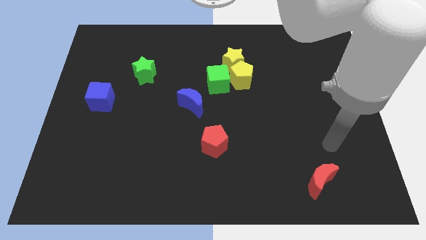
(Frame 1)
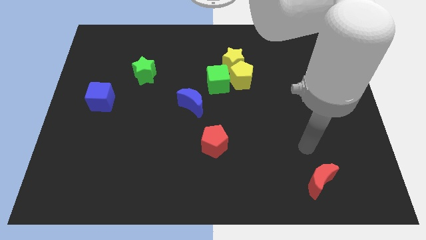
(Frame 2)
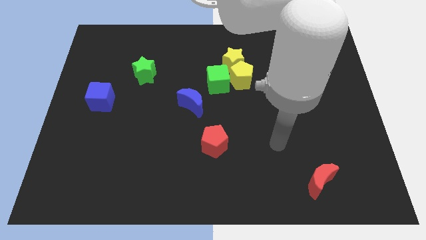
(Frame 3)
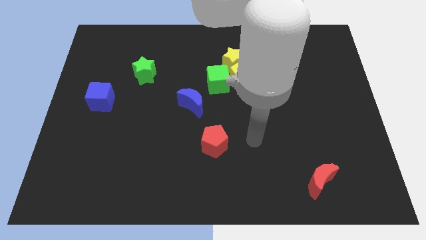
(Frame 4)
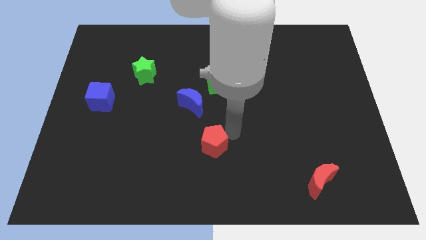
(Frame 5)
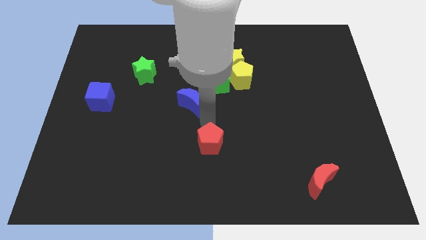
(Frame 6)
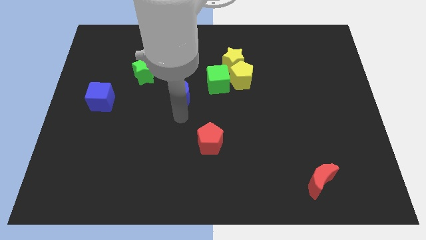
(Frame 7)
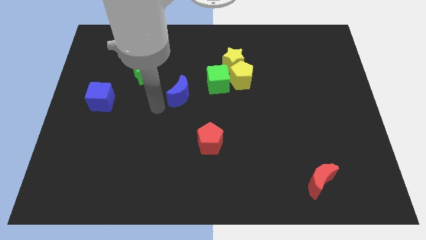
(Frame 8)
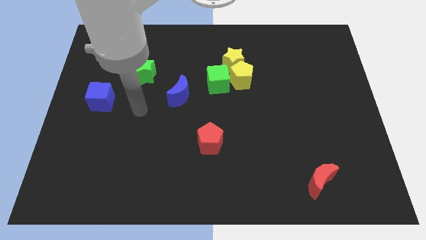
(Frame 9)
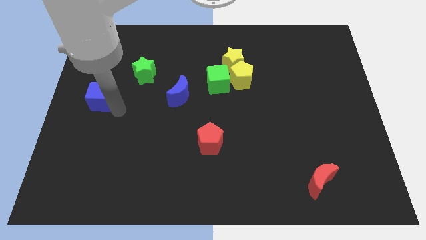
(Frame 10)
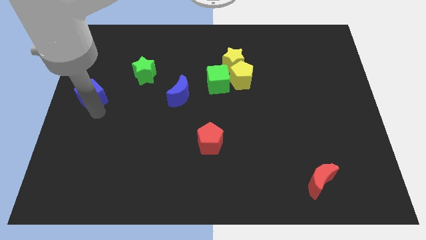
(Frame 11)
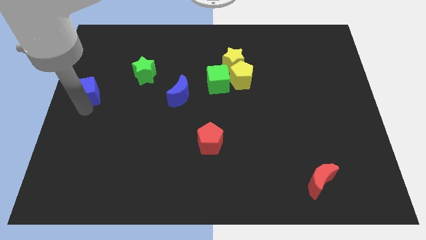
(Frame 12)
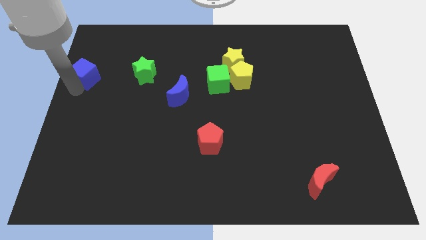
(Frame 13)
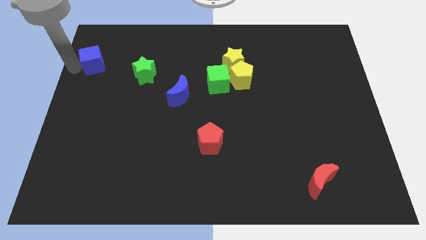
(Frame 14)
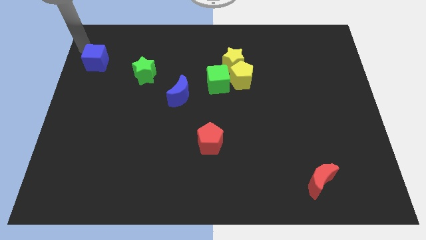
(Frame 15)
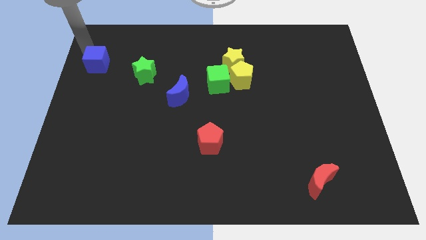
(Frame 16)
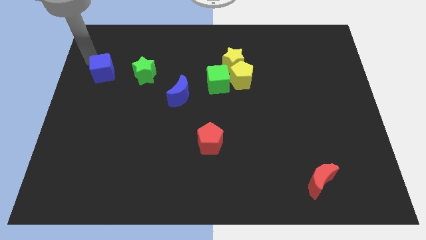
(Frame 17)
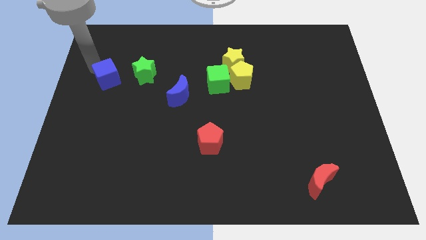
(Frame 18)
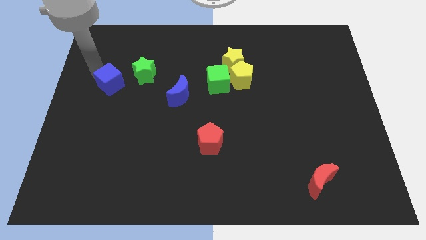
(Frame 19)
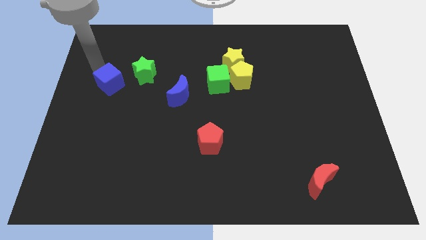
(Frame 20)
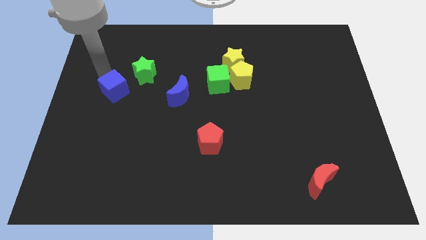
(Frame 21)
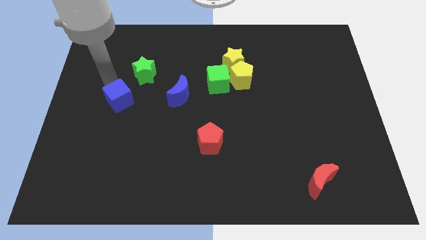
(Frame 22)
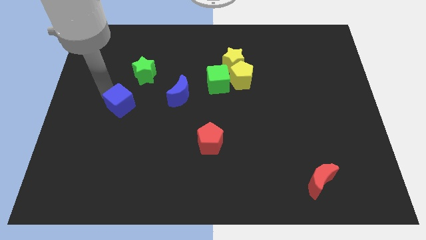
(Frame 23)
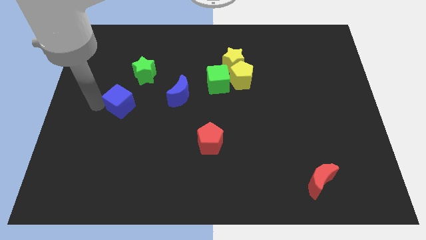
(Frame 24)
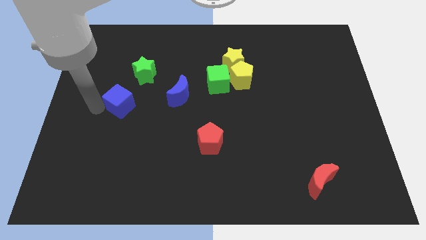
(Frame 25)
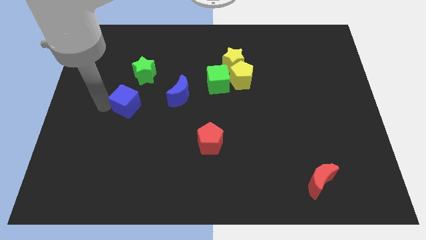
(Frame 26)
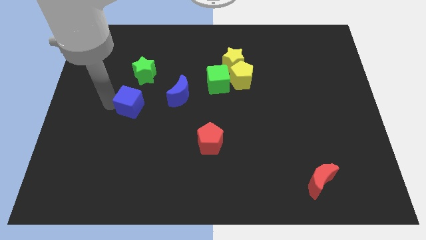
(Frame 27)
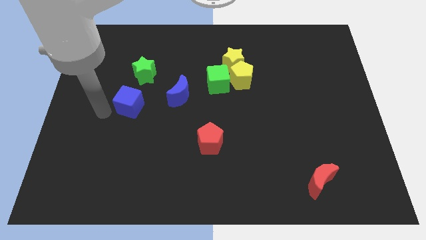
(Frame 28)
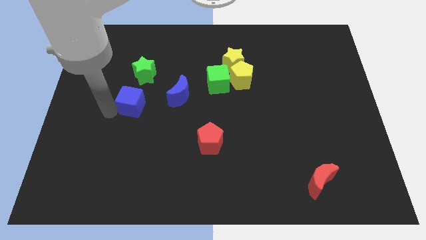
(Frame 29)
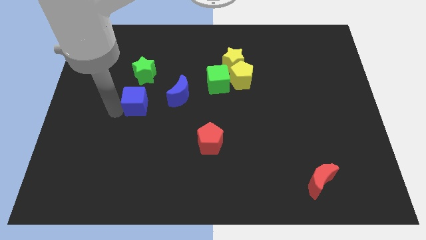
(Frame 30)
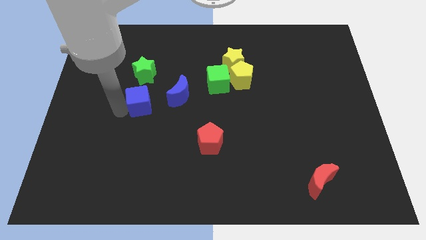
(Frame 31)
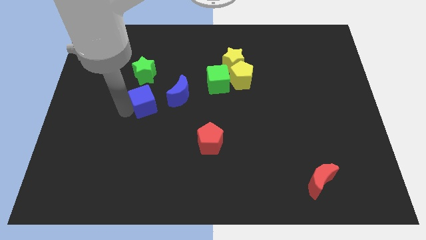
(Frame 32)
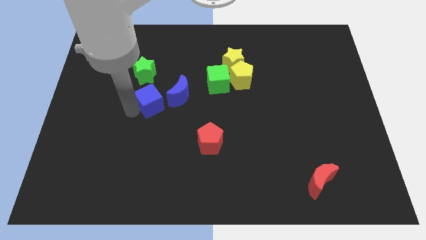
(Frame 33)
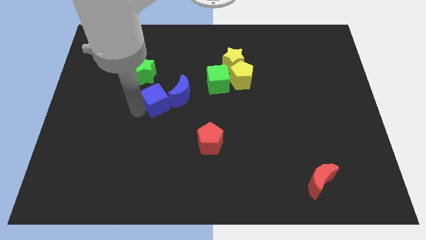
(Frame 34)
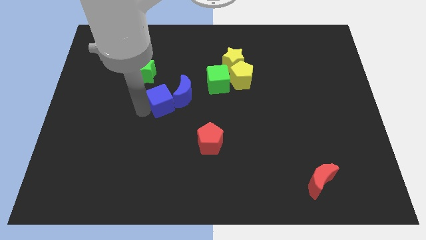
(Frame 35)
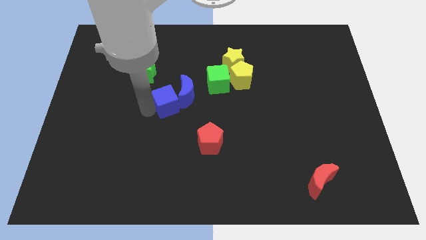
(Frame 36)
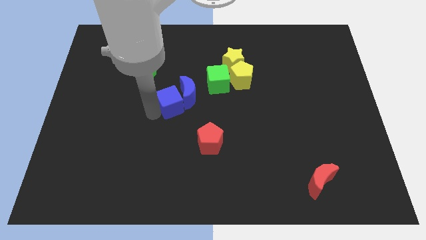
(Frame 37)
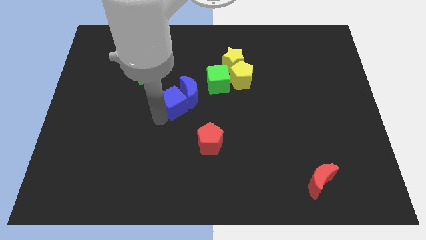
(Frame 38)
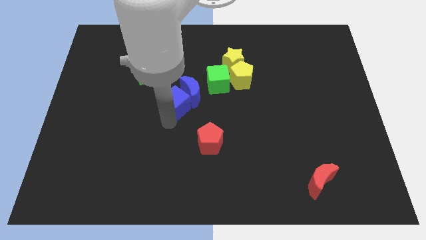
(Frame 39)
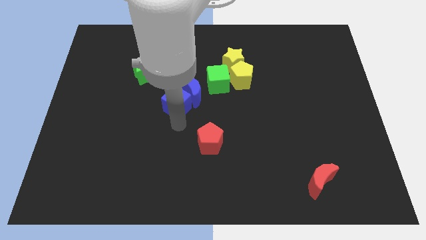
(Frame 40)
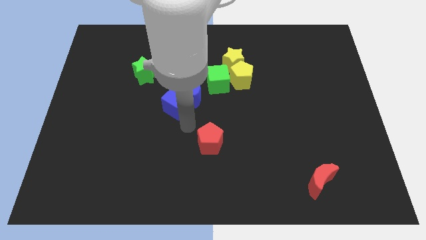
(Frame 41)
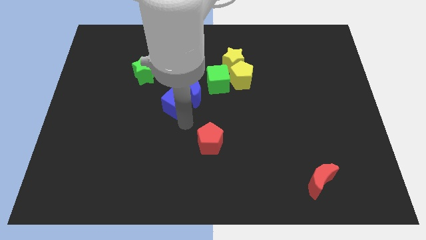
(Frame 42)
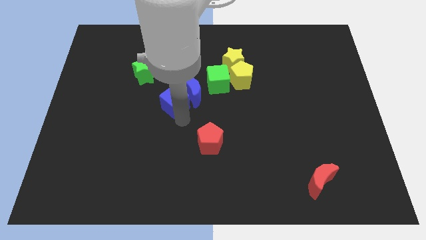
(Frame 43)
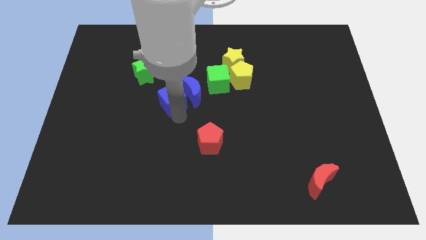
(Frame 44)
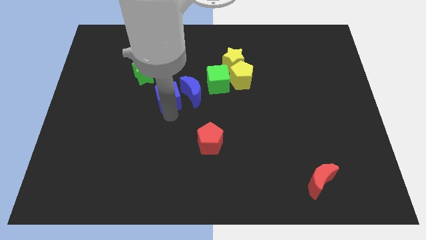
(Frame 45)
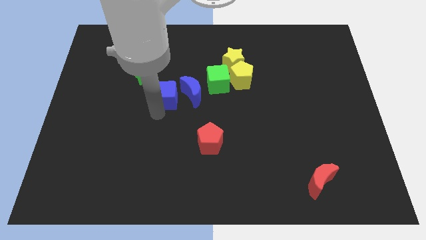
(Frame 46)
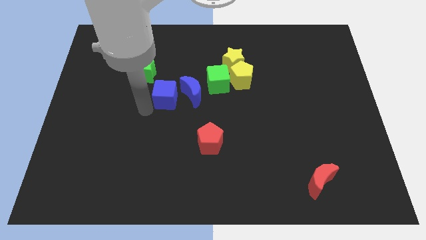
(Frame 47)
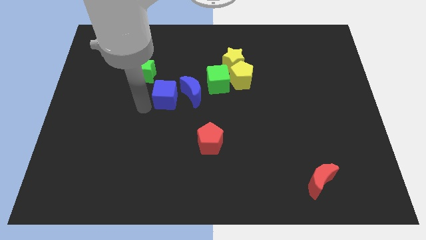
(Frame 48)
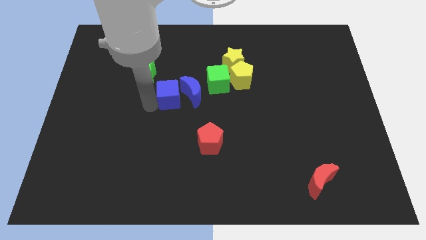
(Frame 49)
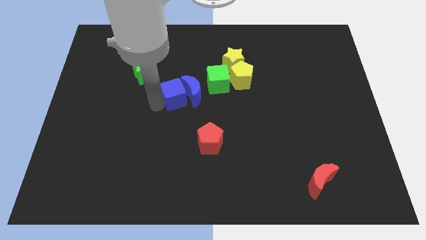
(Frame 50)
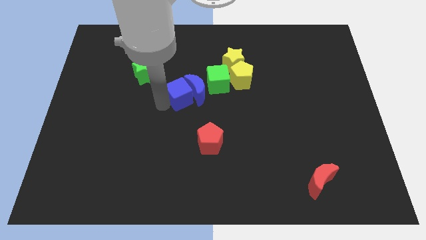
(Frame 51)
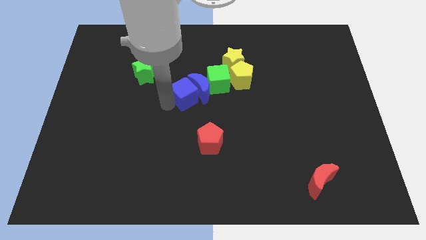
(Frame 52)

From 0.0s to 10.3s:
move the blue cube to the right

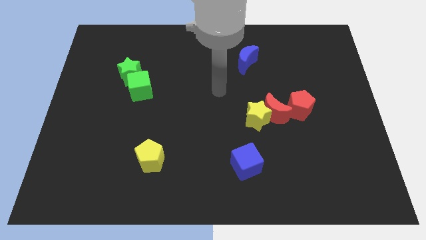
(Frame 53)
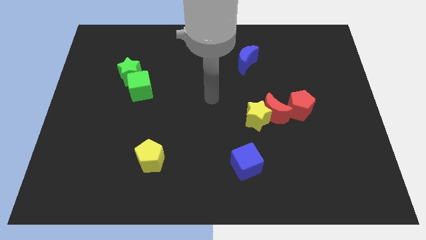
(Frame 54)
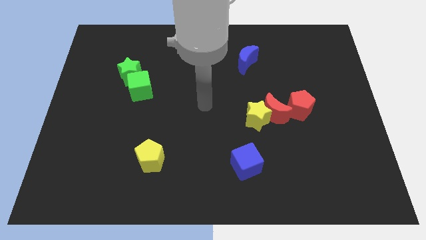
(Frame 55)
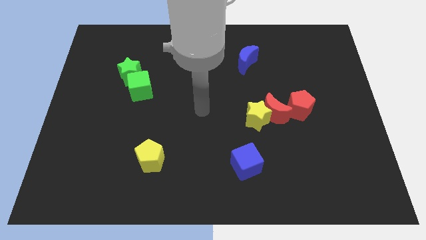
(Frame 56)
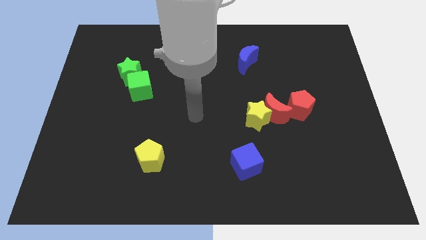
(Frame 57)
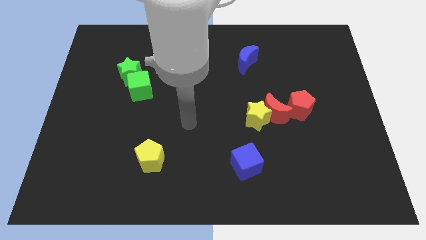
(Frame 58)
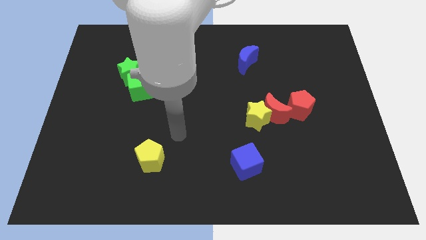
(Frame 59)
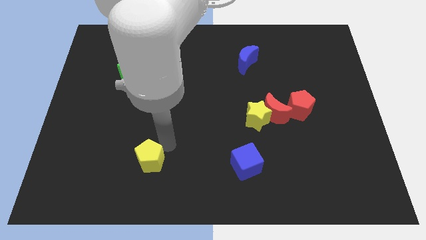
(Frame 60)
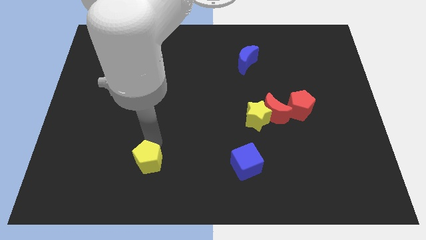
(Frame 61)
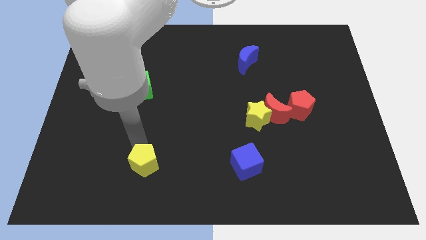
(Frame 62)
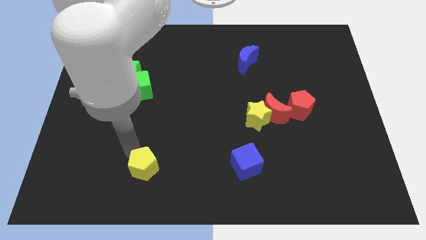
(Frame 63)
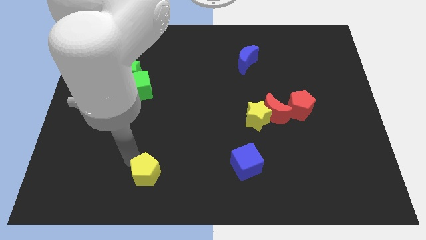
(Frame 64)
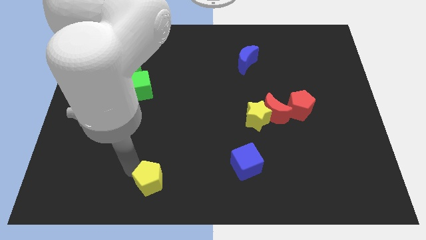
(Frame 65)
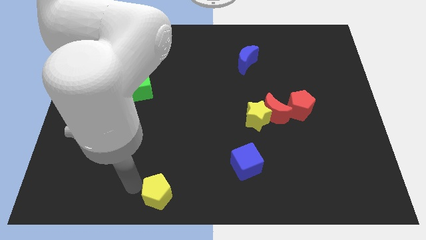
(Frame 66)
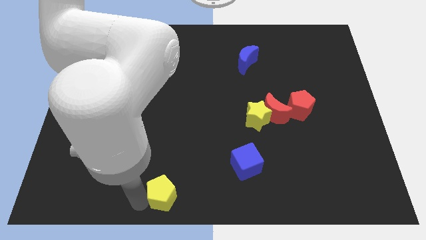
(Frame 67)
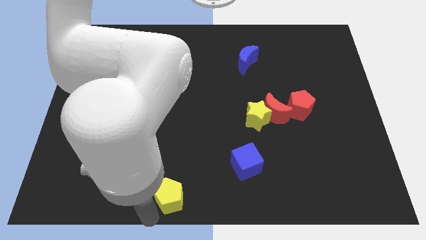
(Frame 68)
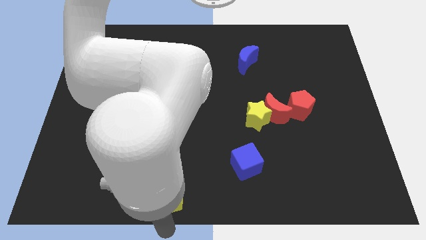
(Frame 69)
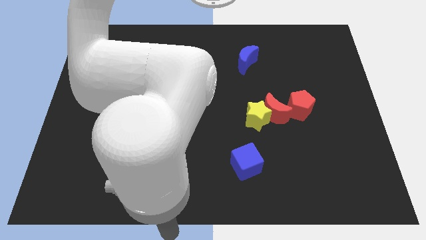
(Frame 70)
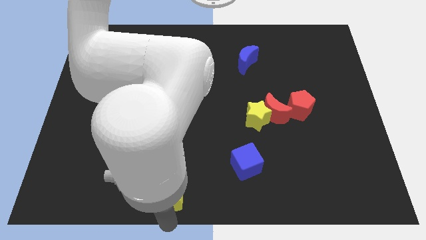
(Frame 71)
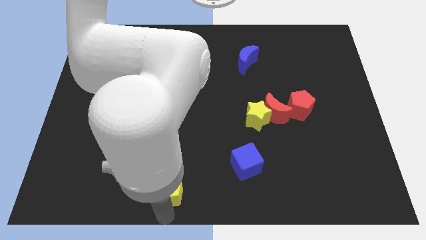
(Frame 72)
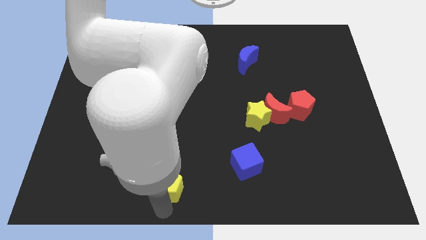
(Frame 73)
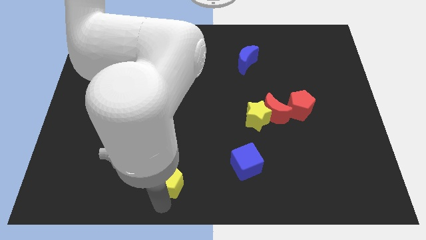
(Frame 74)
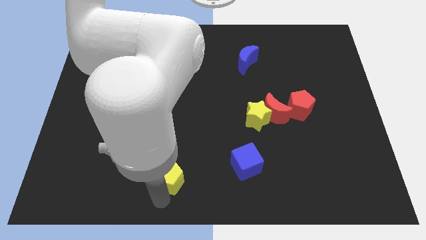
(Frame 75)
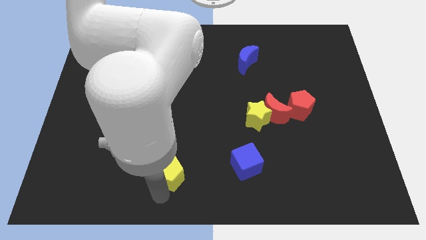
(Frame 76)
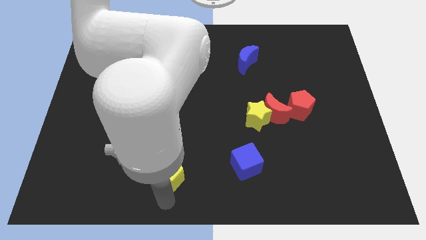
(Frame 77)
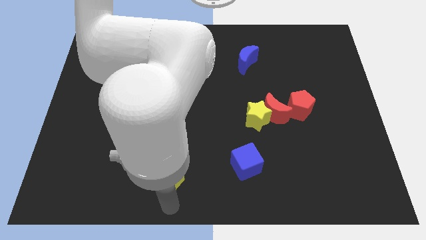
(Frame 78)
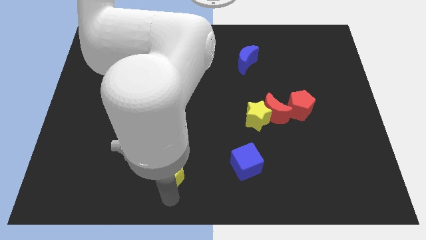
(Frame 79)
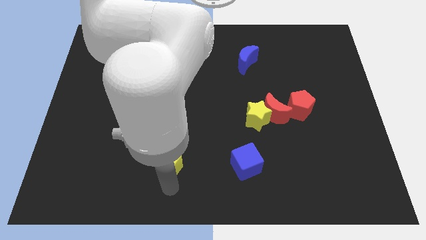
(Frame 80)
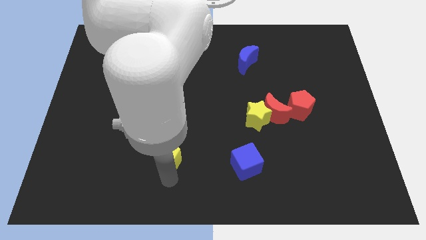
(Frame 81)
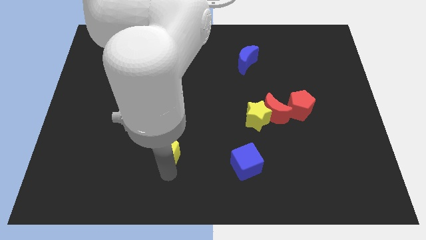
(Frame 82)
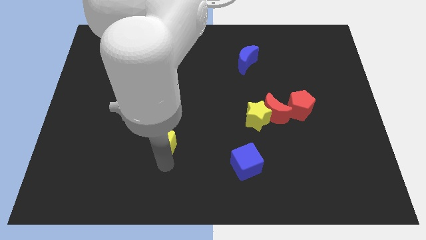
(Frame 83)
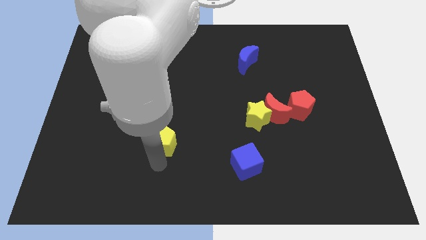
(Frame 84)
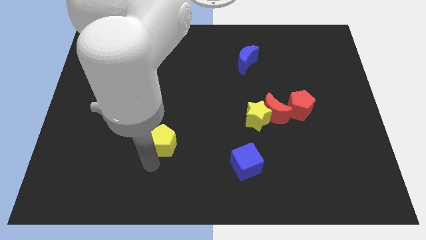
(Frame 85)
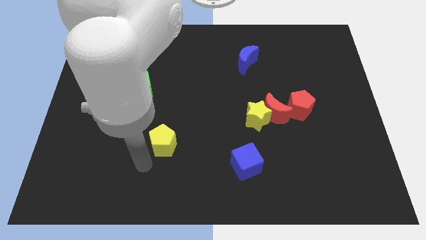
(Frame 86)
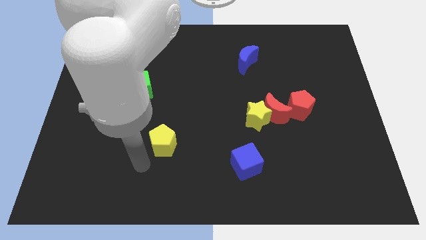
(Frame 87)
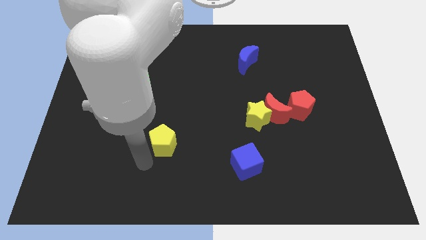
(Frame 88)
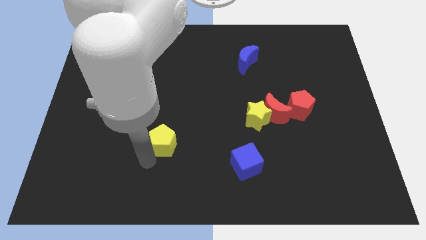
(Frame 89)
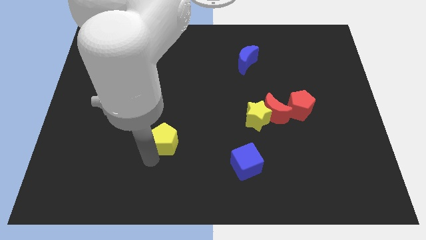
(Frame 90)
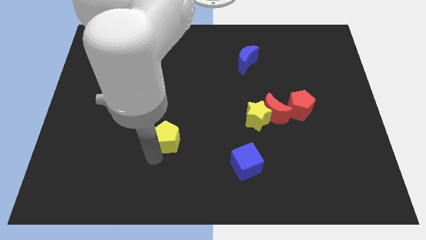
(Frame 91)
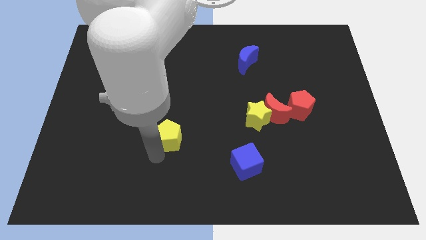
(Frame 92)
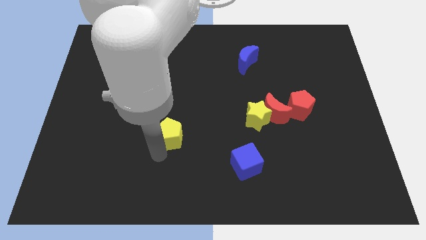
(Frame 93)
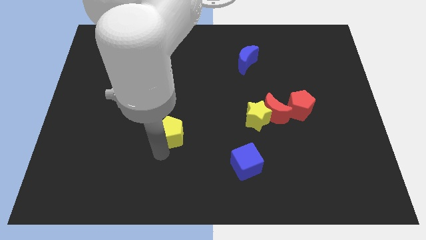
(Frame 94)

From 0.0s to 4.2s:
slide the yellow pentagon somewhat upwards and then right
